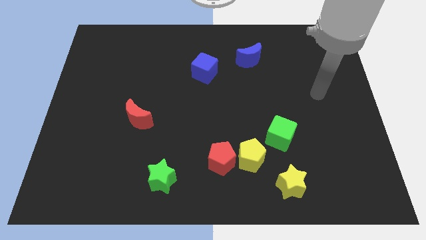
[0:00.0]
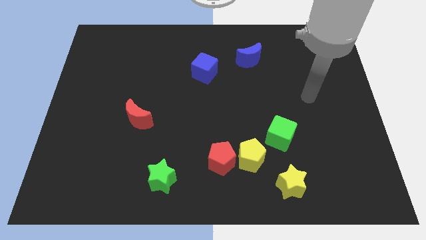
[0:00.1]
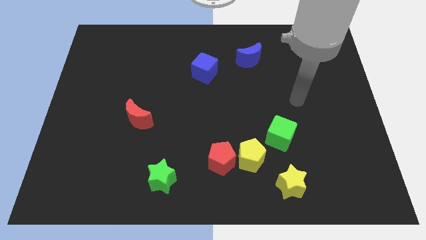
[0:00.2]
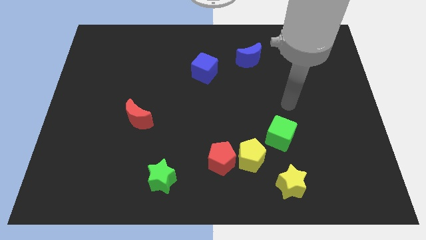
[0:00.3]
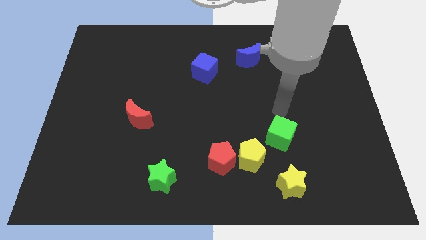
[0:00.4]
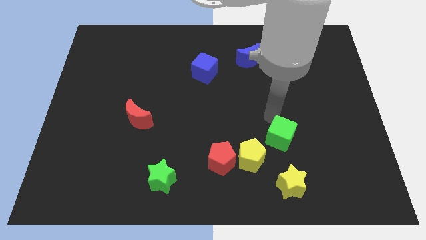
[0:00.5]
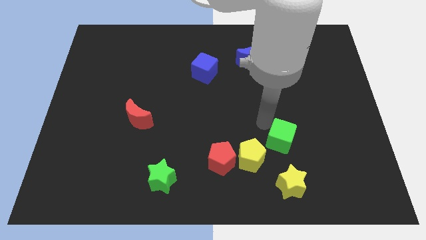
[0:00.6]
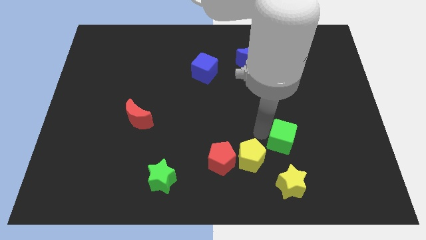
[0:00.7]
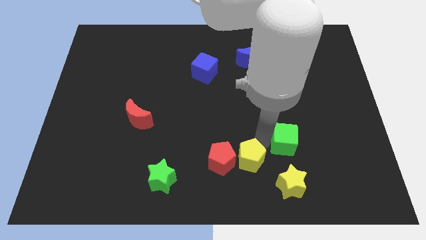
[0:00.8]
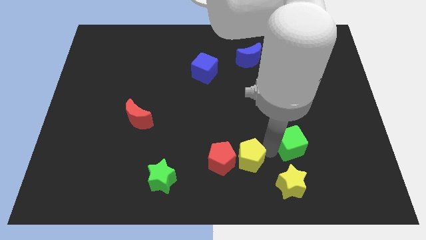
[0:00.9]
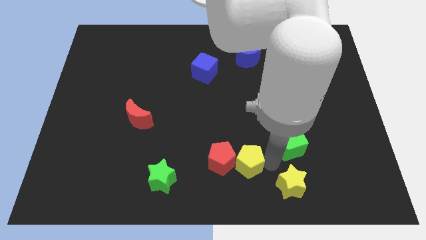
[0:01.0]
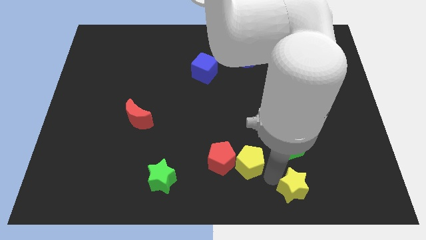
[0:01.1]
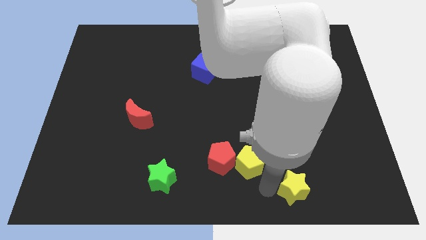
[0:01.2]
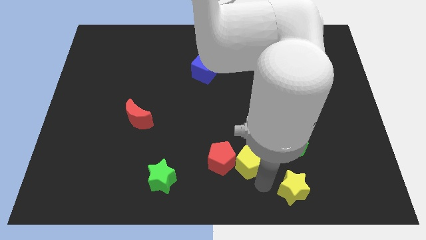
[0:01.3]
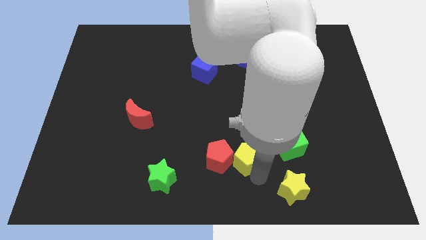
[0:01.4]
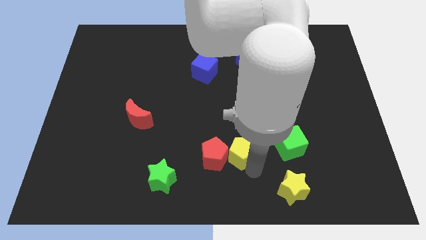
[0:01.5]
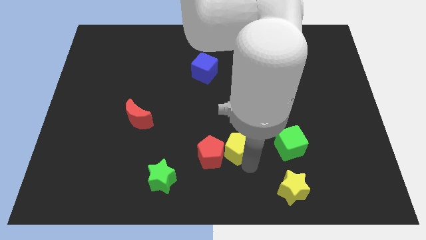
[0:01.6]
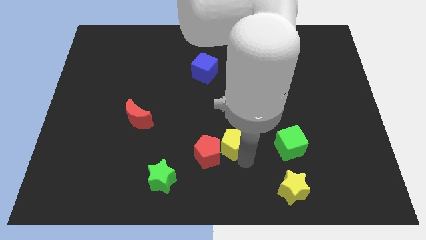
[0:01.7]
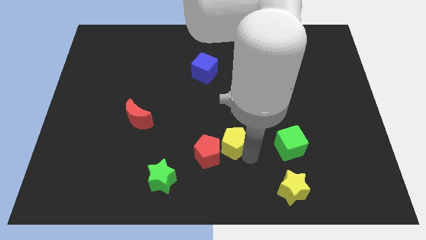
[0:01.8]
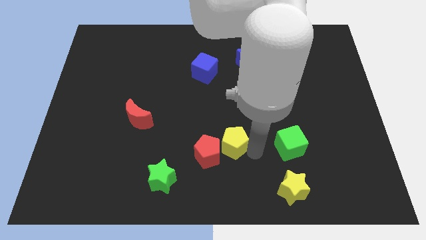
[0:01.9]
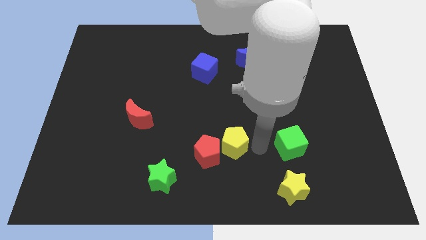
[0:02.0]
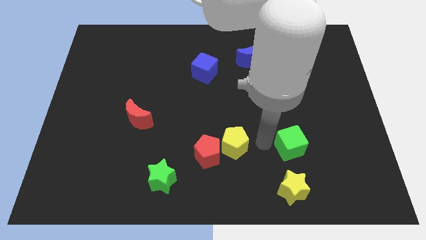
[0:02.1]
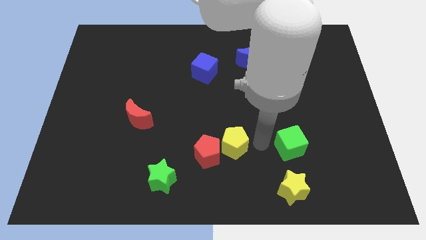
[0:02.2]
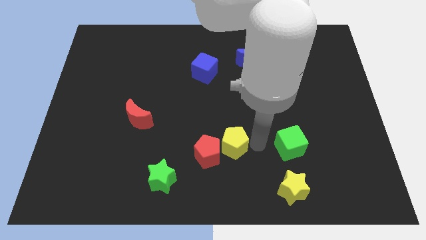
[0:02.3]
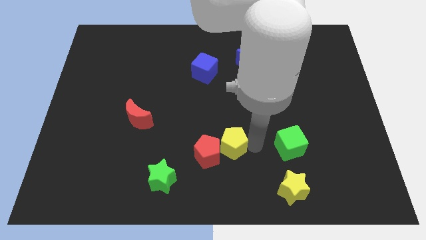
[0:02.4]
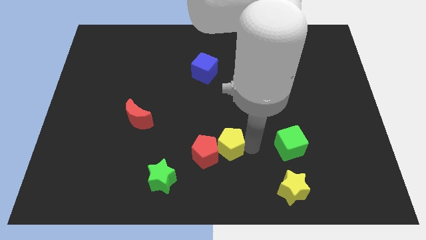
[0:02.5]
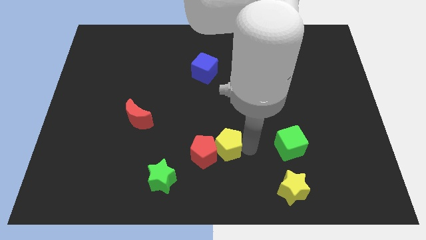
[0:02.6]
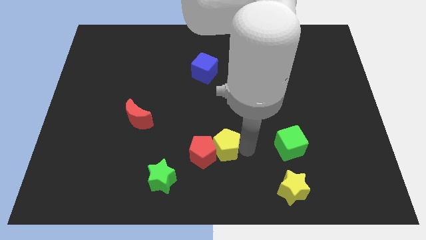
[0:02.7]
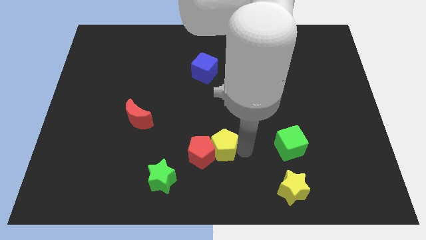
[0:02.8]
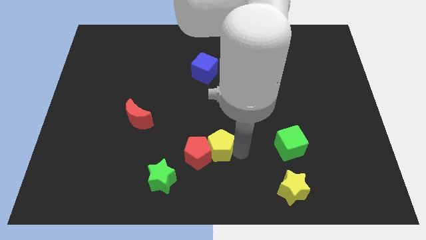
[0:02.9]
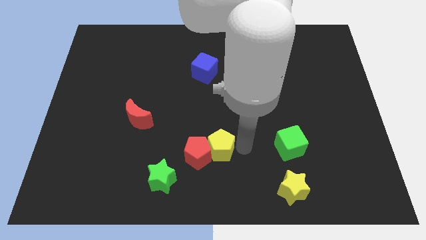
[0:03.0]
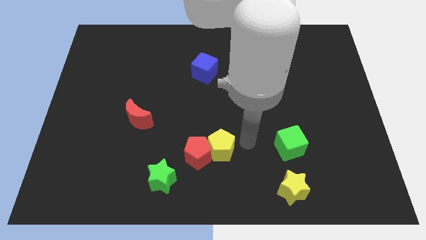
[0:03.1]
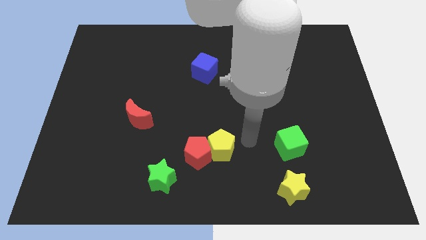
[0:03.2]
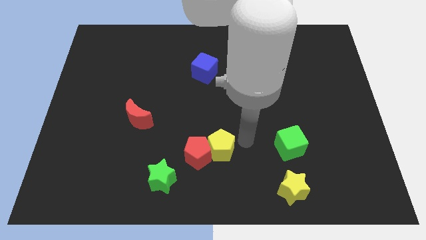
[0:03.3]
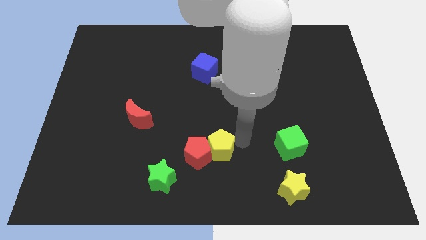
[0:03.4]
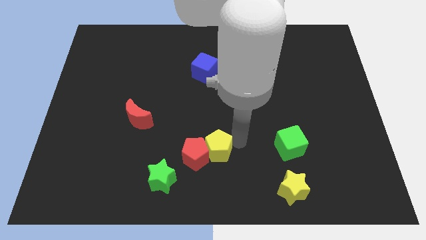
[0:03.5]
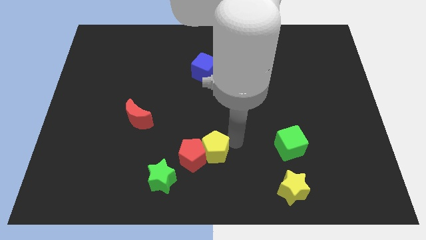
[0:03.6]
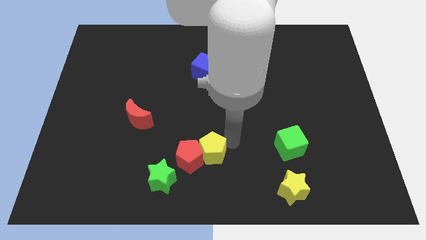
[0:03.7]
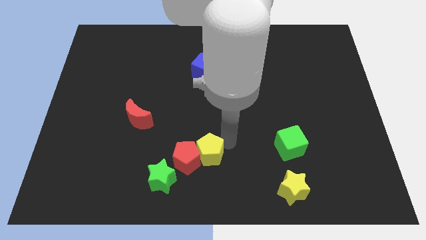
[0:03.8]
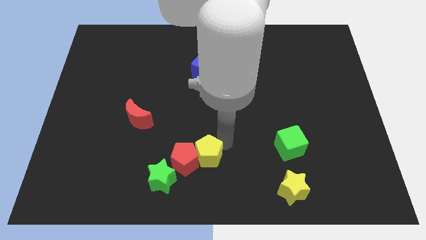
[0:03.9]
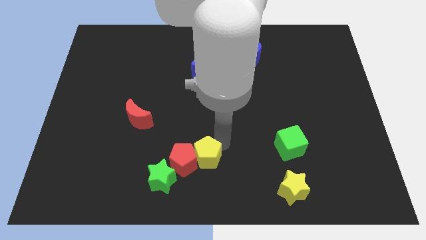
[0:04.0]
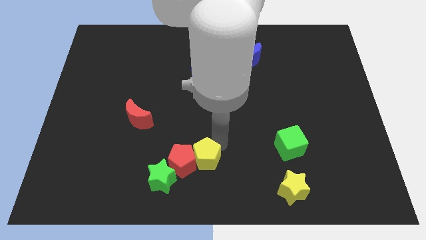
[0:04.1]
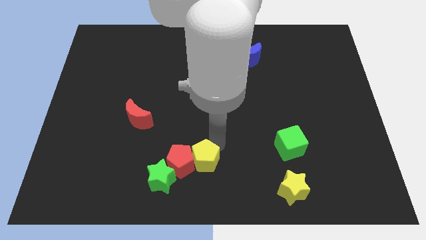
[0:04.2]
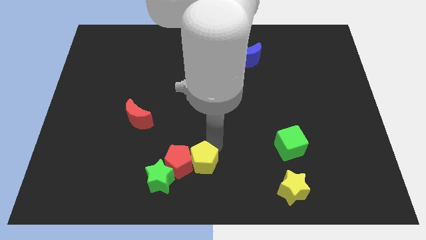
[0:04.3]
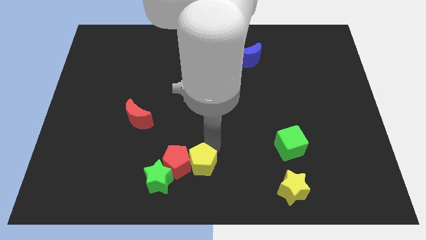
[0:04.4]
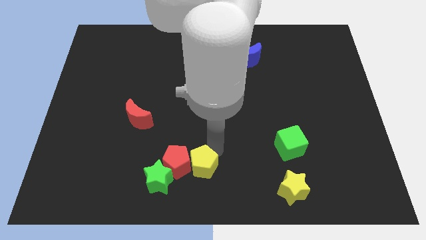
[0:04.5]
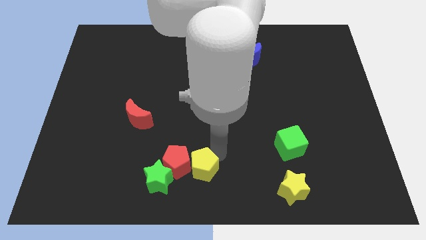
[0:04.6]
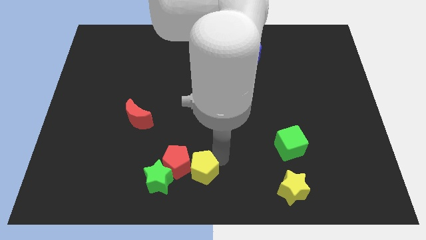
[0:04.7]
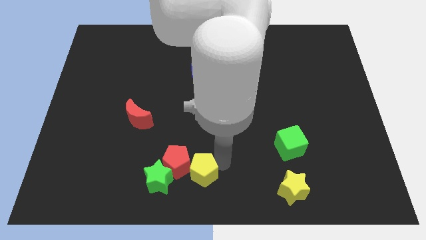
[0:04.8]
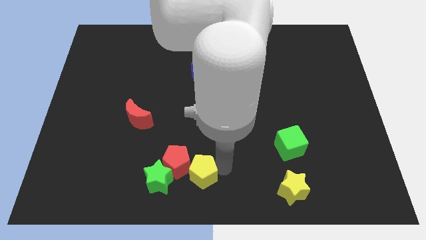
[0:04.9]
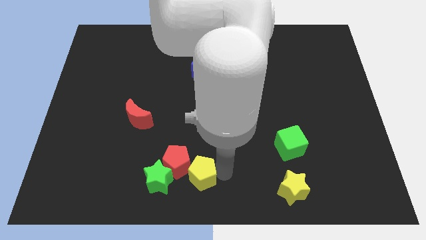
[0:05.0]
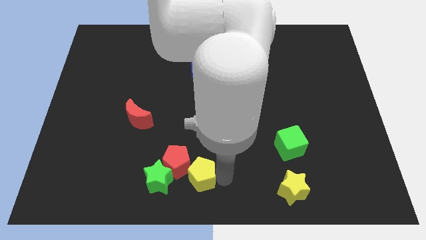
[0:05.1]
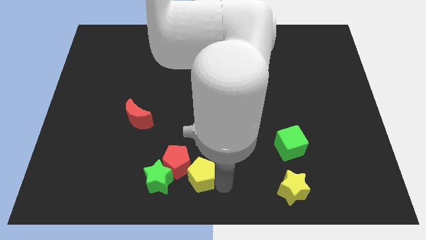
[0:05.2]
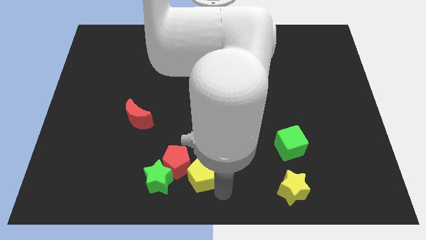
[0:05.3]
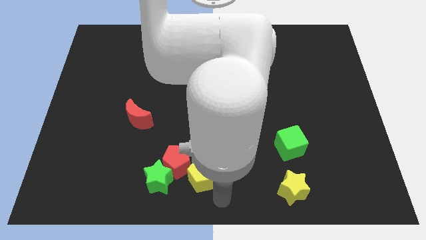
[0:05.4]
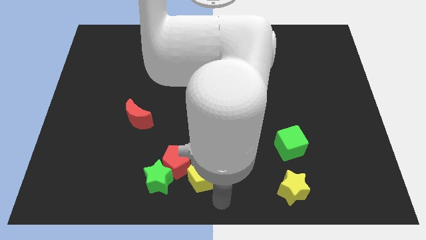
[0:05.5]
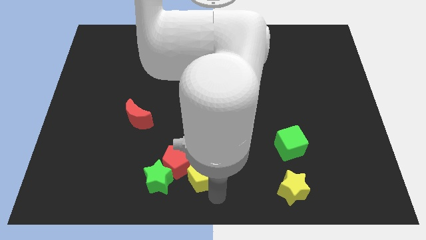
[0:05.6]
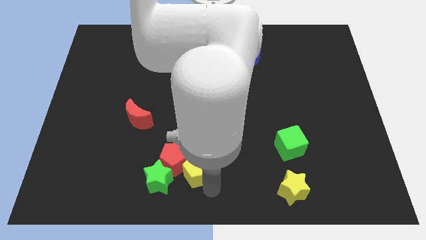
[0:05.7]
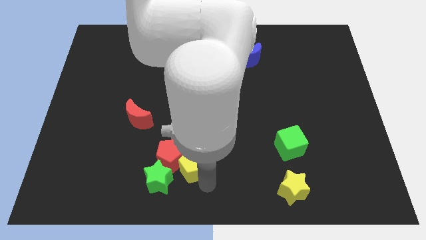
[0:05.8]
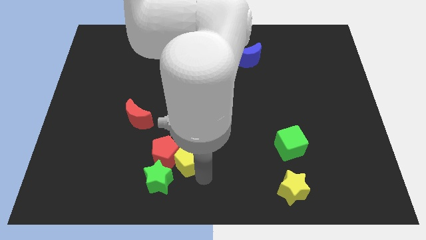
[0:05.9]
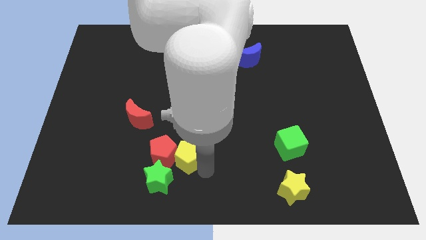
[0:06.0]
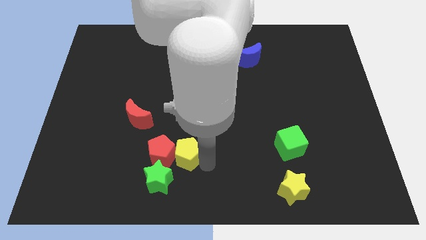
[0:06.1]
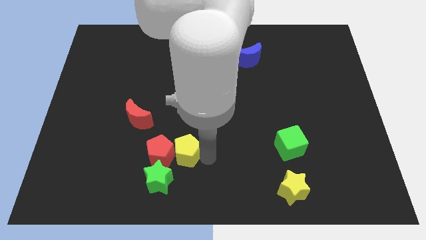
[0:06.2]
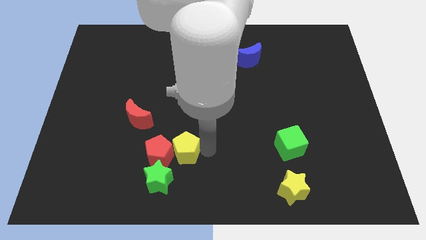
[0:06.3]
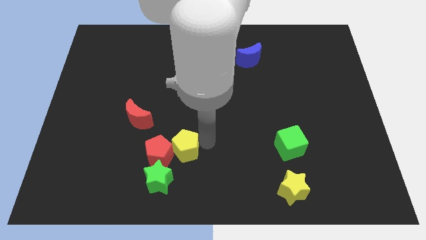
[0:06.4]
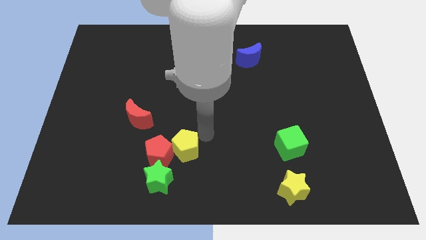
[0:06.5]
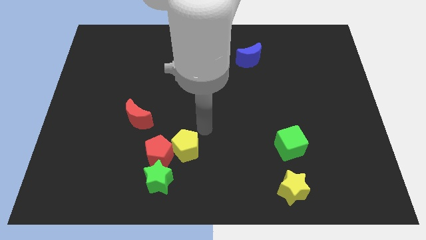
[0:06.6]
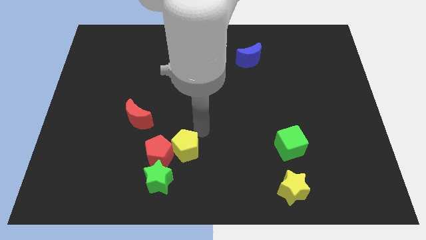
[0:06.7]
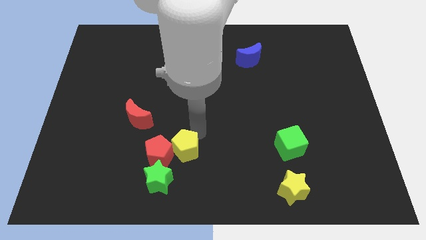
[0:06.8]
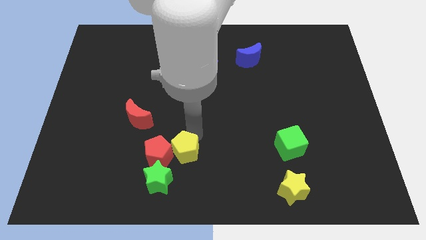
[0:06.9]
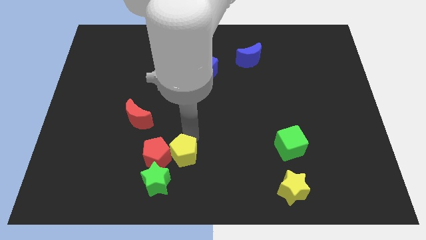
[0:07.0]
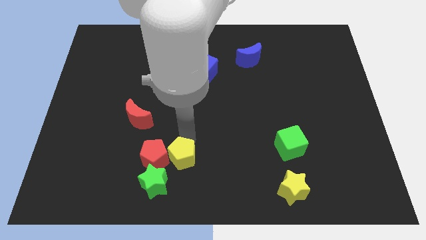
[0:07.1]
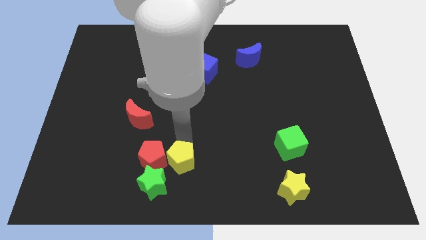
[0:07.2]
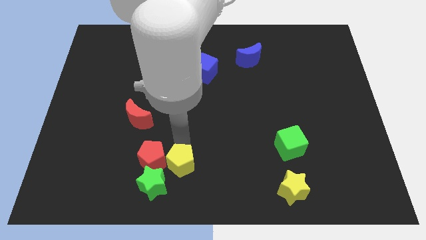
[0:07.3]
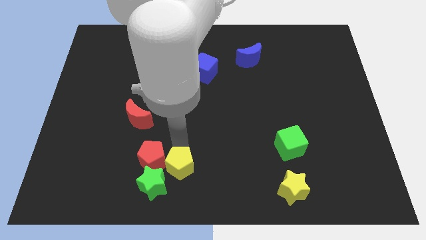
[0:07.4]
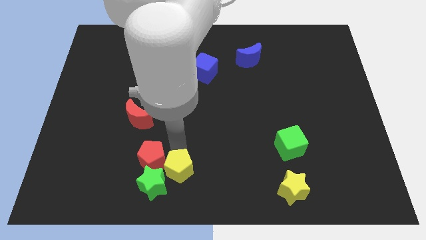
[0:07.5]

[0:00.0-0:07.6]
put the yellow pentagon close to the green star

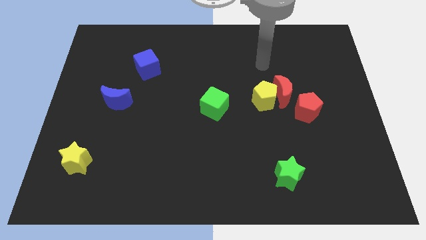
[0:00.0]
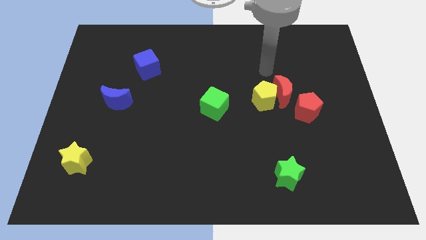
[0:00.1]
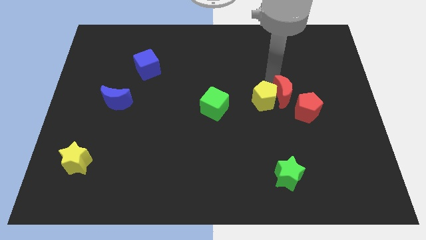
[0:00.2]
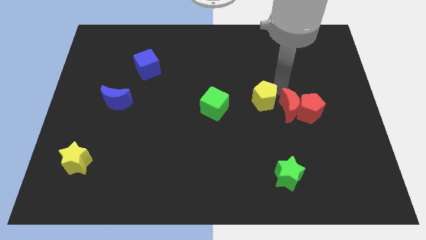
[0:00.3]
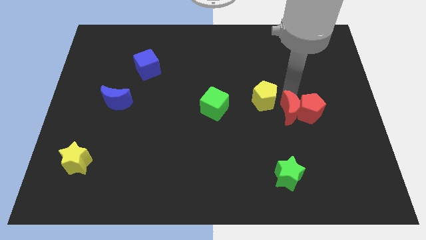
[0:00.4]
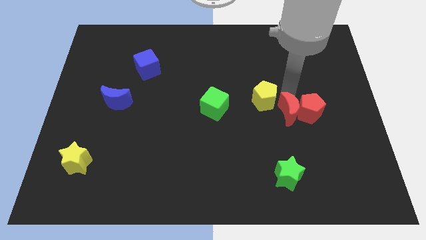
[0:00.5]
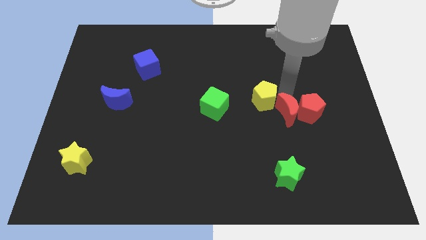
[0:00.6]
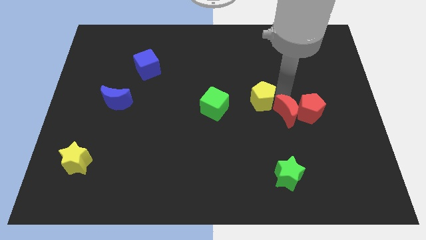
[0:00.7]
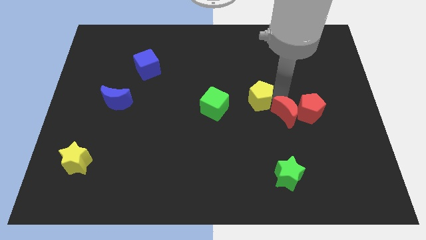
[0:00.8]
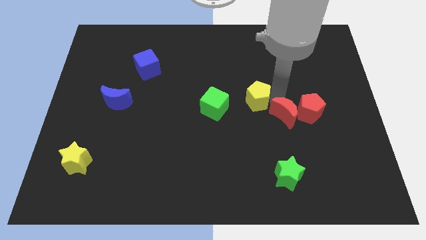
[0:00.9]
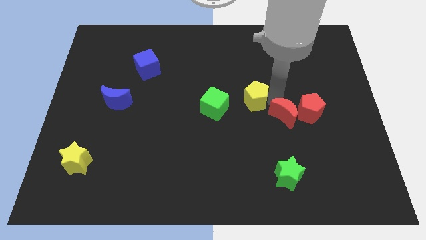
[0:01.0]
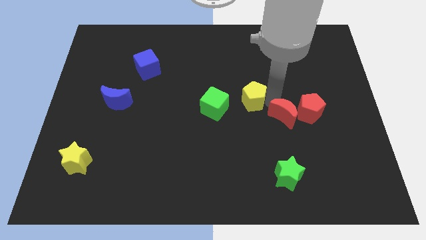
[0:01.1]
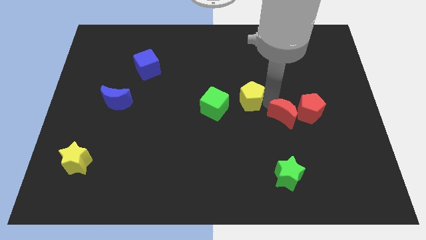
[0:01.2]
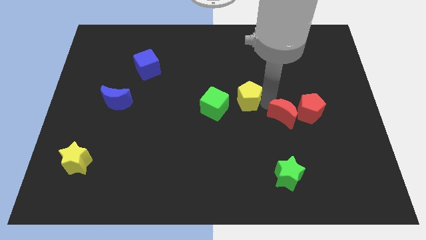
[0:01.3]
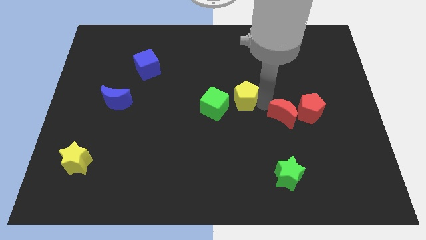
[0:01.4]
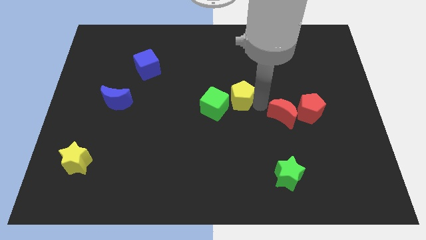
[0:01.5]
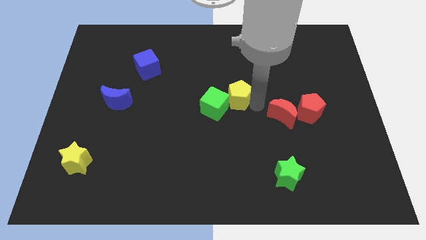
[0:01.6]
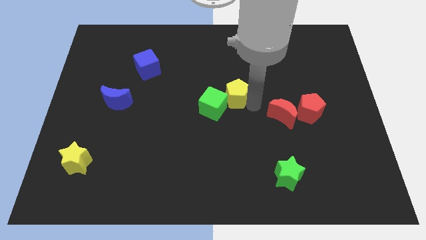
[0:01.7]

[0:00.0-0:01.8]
slide the yellow pentagon next to the green cube
